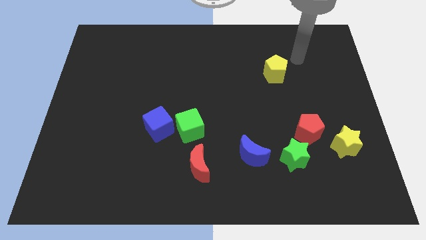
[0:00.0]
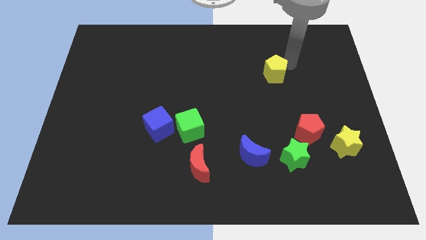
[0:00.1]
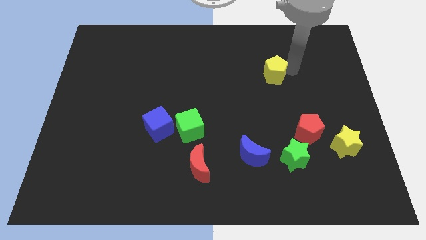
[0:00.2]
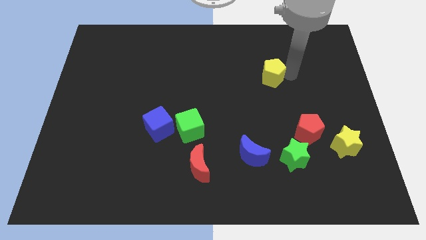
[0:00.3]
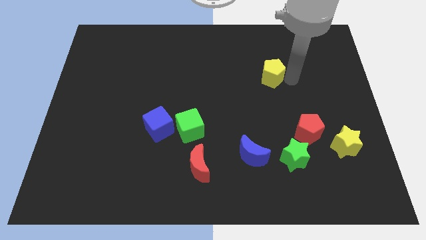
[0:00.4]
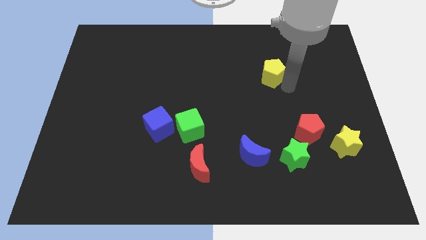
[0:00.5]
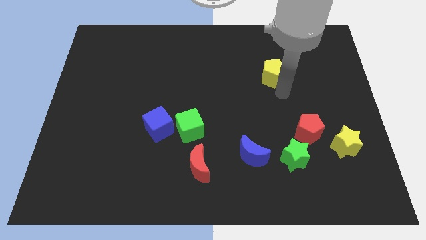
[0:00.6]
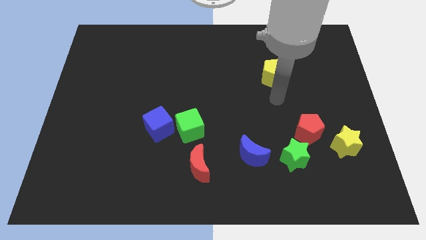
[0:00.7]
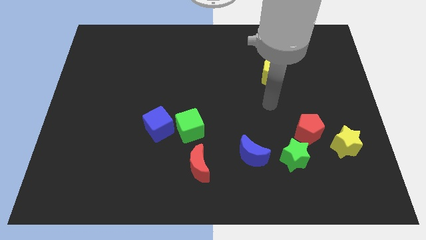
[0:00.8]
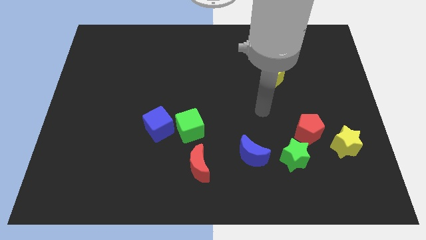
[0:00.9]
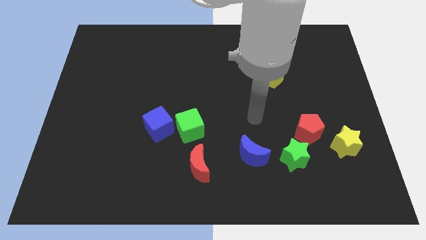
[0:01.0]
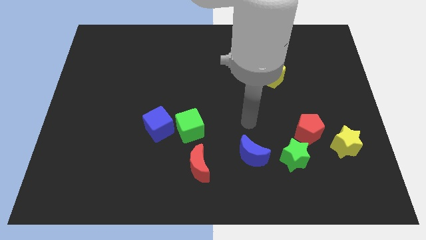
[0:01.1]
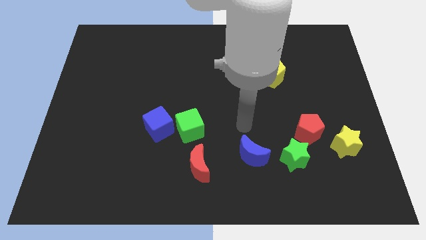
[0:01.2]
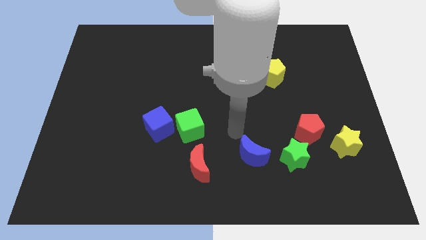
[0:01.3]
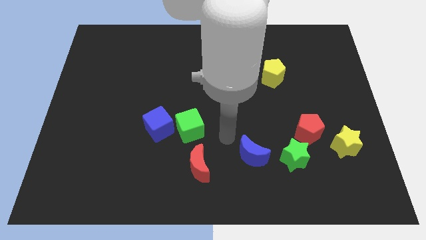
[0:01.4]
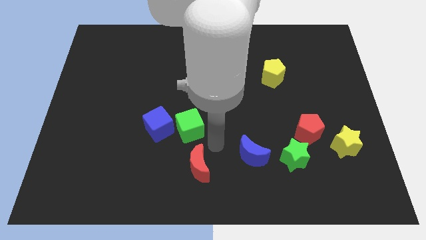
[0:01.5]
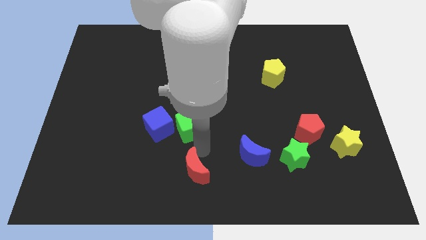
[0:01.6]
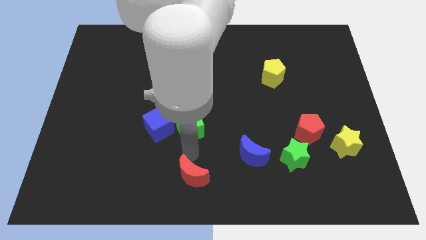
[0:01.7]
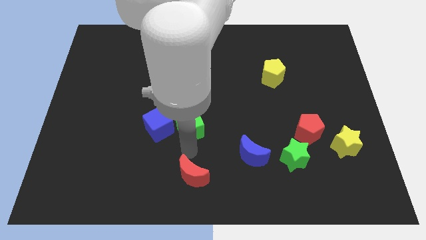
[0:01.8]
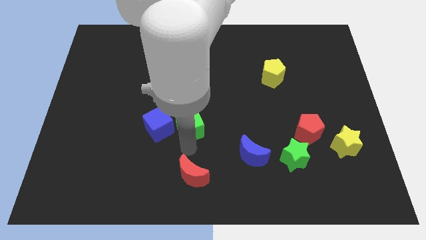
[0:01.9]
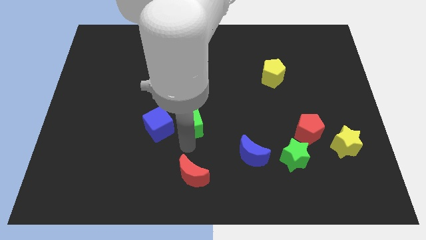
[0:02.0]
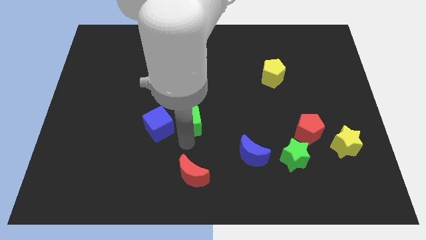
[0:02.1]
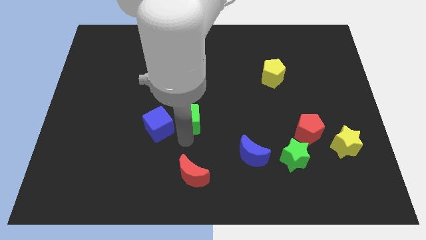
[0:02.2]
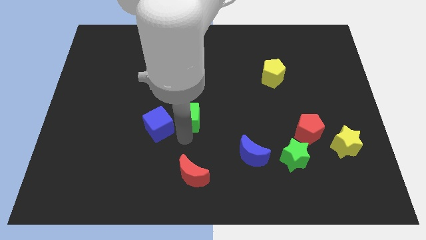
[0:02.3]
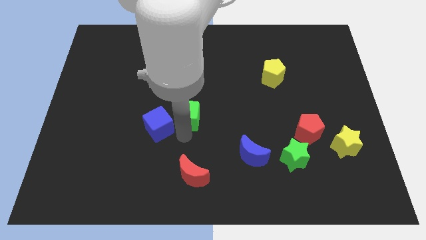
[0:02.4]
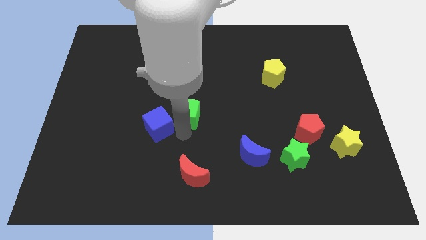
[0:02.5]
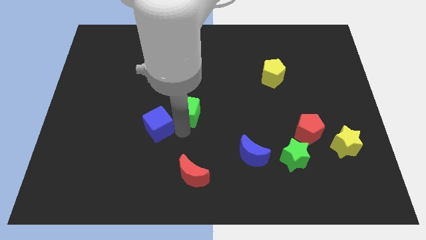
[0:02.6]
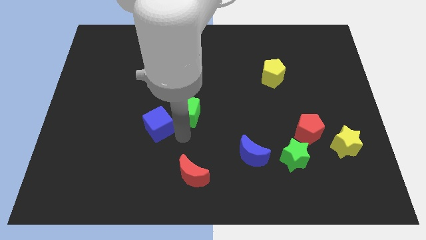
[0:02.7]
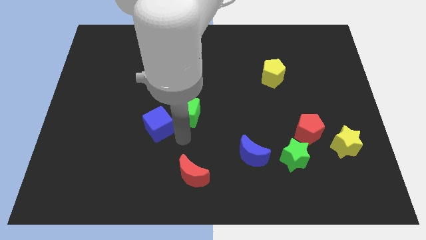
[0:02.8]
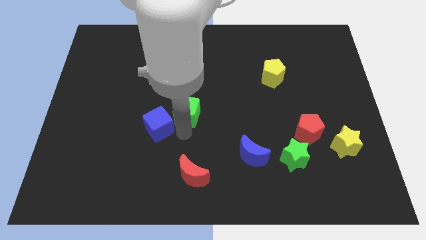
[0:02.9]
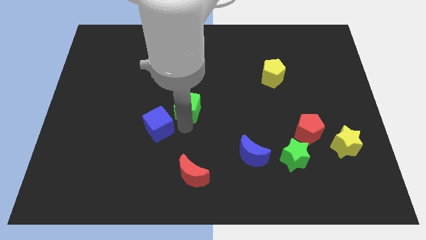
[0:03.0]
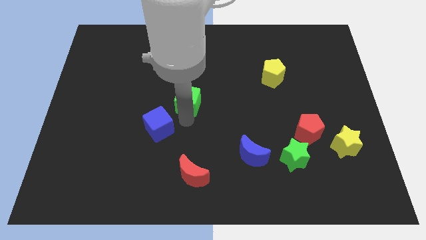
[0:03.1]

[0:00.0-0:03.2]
slightly move the green cube up

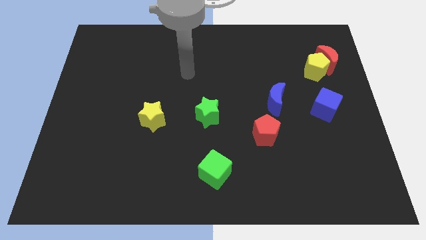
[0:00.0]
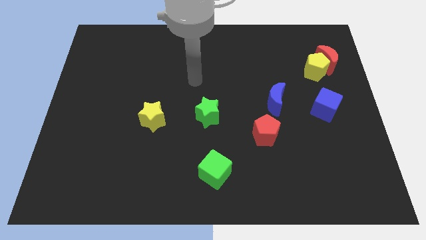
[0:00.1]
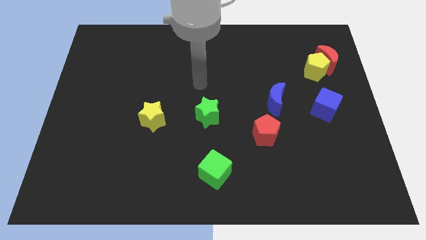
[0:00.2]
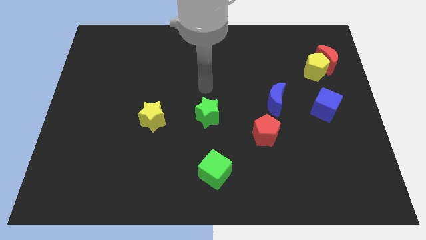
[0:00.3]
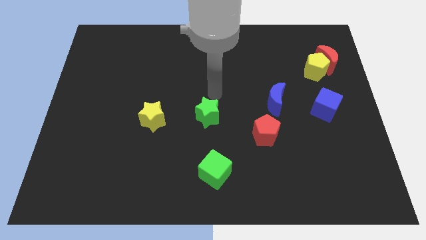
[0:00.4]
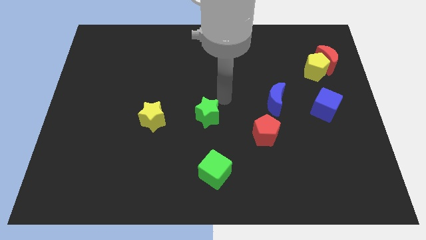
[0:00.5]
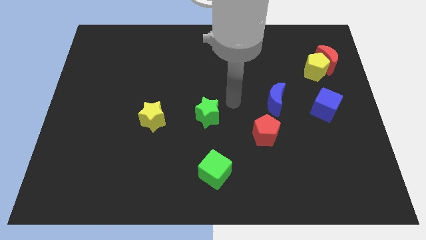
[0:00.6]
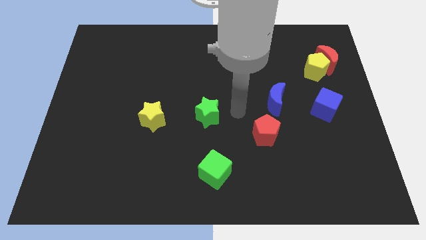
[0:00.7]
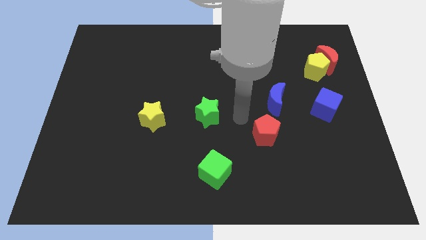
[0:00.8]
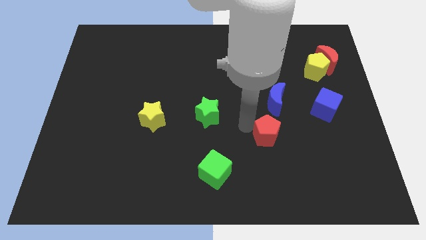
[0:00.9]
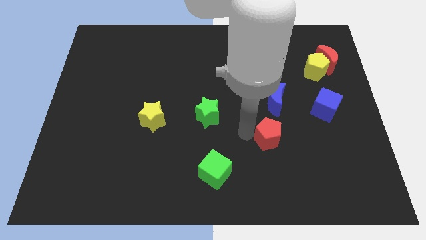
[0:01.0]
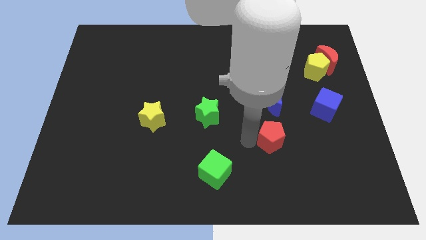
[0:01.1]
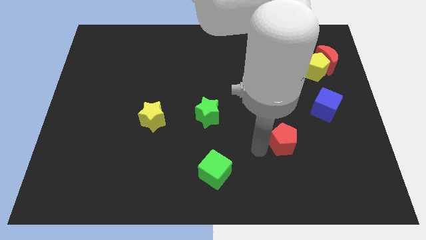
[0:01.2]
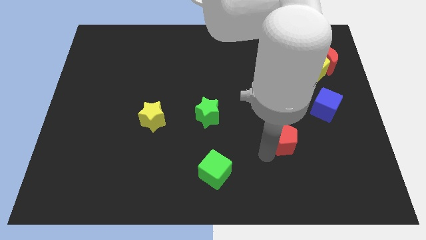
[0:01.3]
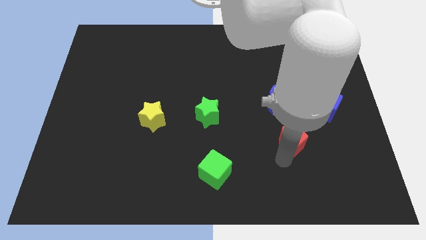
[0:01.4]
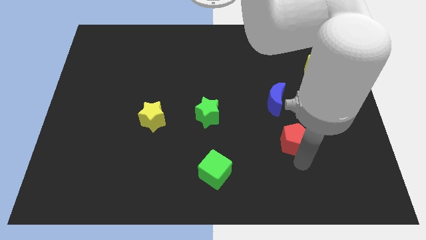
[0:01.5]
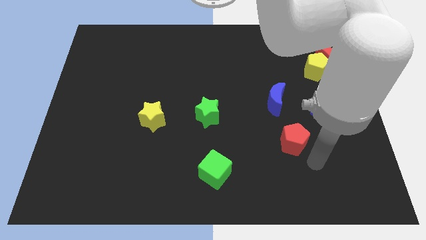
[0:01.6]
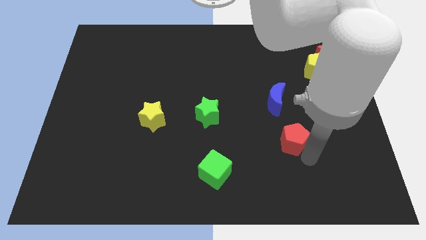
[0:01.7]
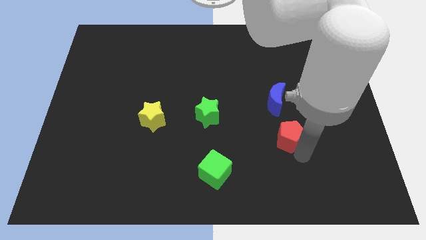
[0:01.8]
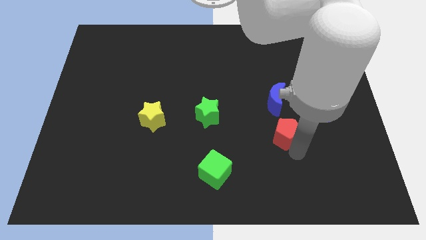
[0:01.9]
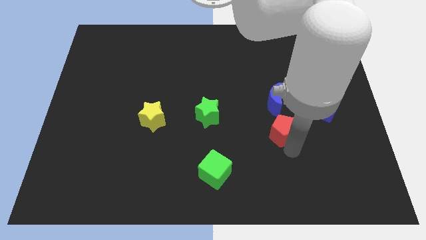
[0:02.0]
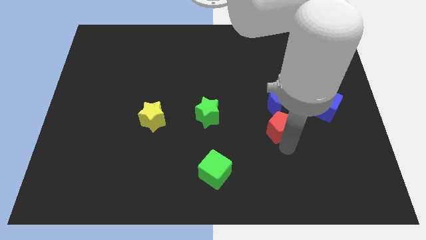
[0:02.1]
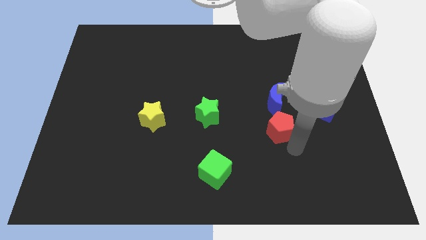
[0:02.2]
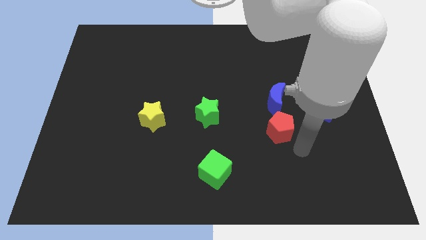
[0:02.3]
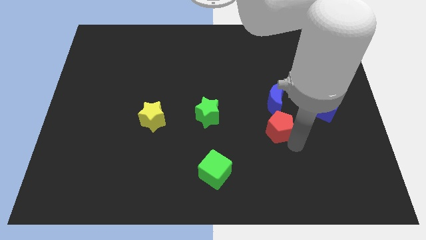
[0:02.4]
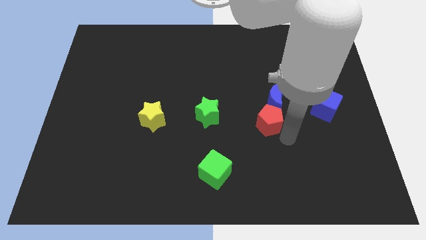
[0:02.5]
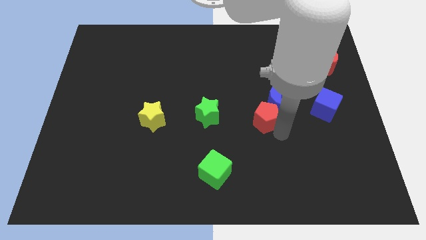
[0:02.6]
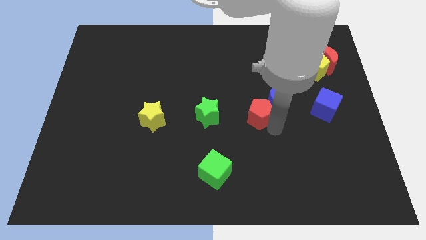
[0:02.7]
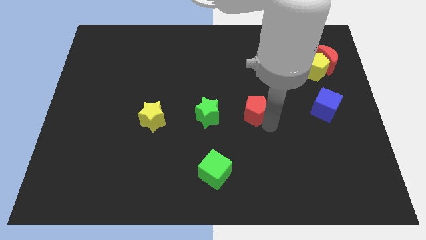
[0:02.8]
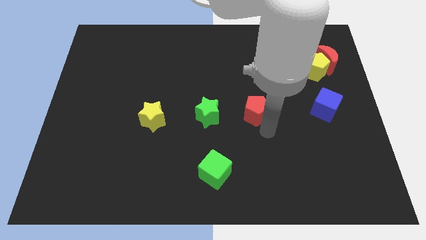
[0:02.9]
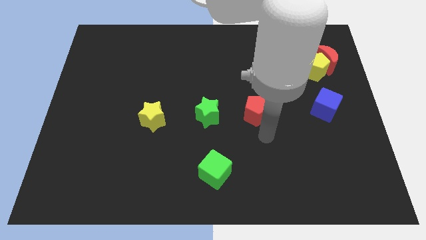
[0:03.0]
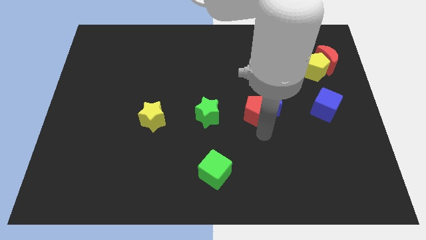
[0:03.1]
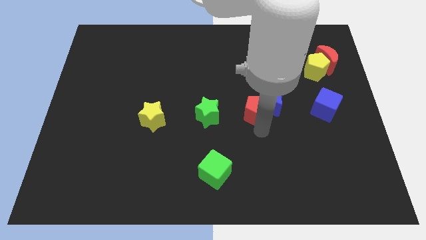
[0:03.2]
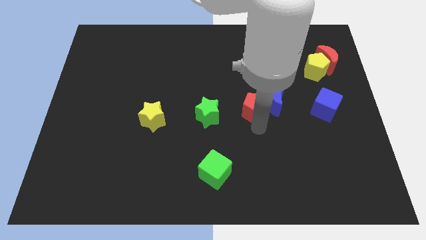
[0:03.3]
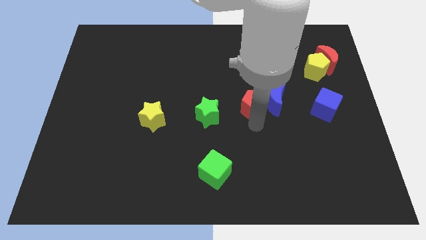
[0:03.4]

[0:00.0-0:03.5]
slightly slide the red pentagon upwards

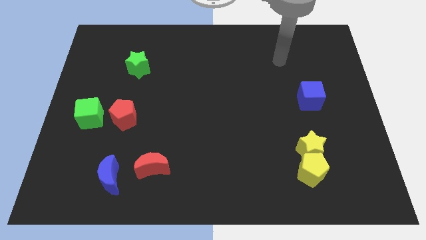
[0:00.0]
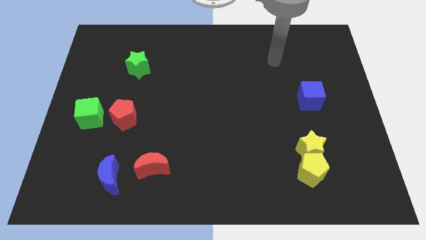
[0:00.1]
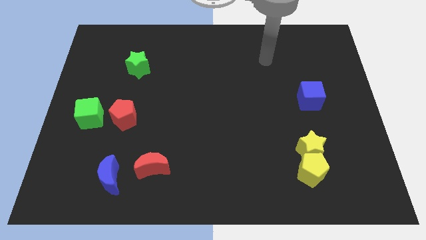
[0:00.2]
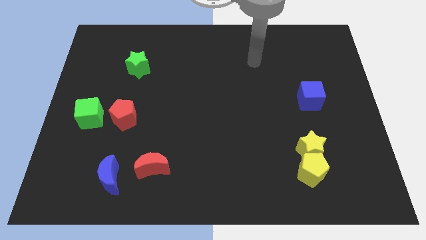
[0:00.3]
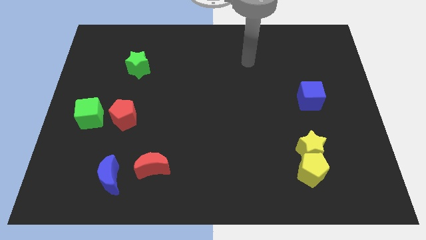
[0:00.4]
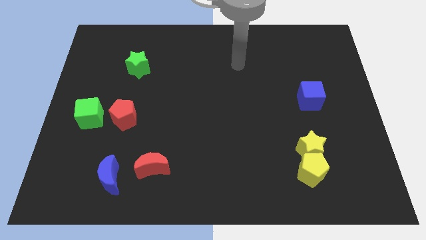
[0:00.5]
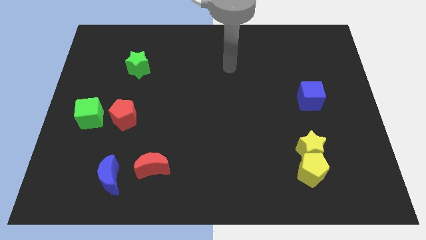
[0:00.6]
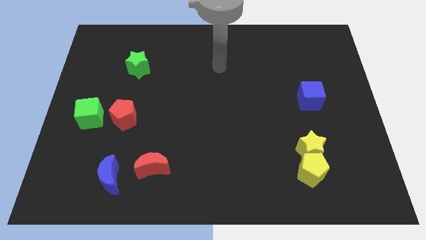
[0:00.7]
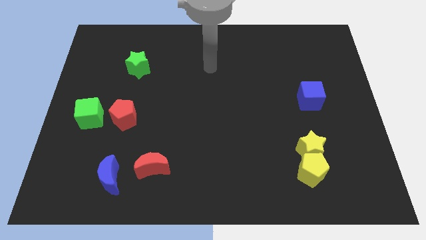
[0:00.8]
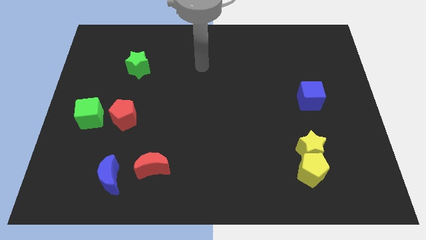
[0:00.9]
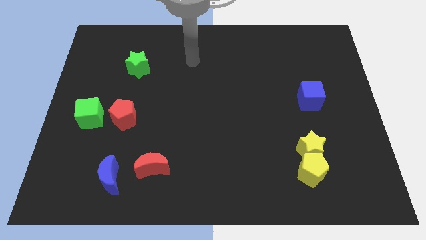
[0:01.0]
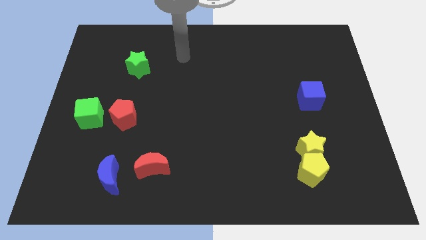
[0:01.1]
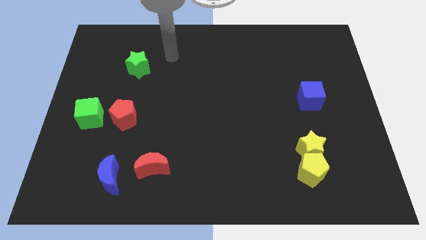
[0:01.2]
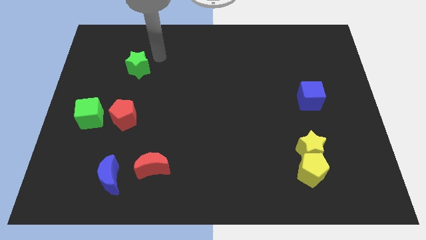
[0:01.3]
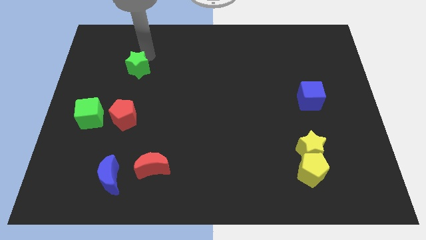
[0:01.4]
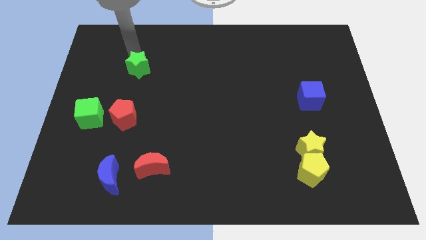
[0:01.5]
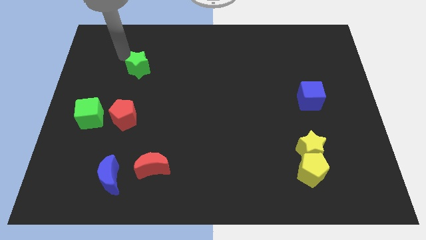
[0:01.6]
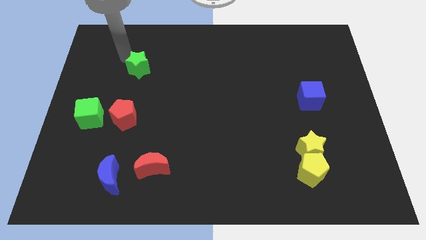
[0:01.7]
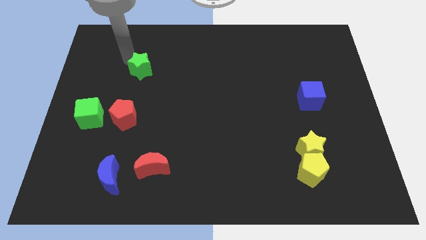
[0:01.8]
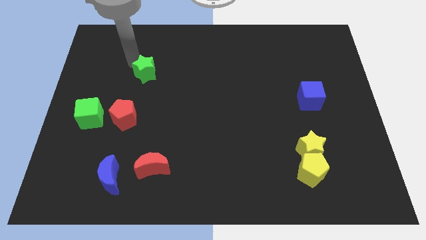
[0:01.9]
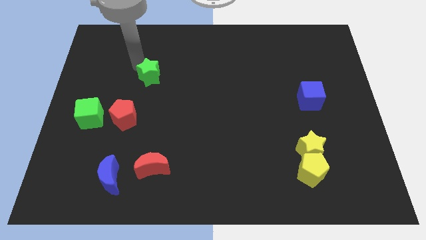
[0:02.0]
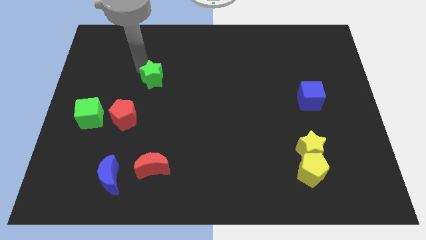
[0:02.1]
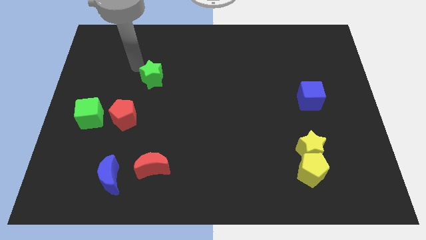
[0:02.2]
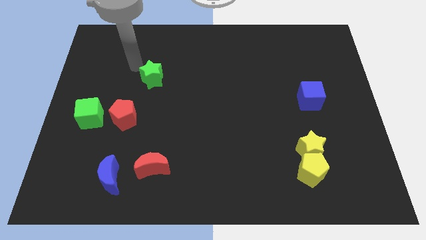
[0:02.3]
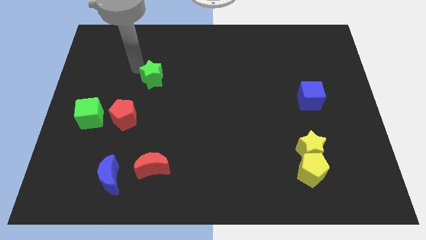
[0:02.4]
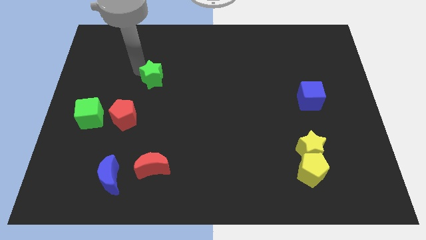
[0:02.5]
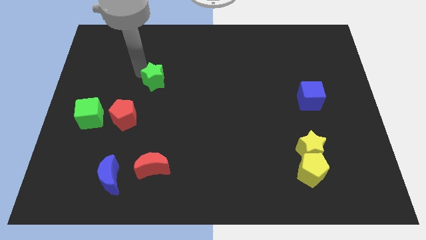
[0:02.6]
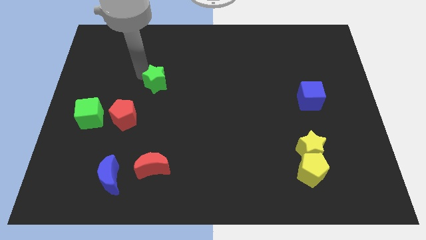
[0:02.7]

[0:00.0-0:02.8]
slightly move the green star downwards and then to the right
